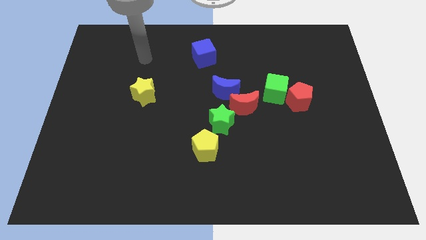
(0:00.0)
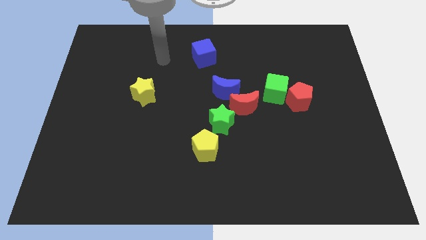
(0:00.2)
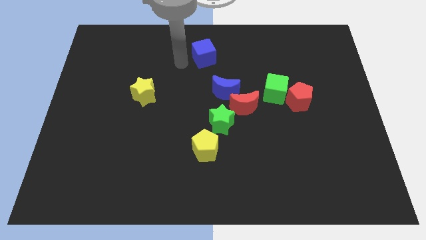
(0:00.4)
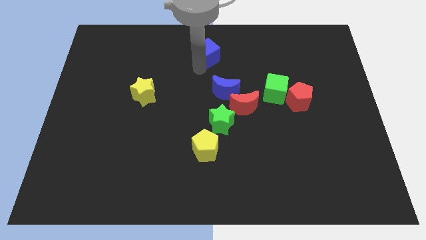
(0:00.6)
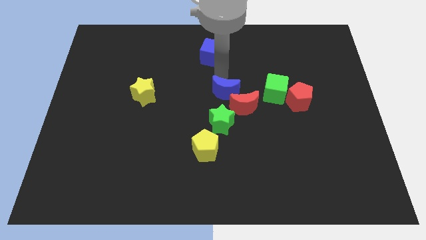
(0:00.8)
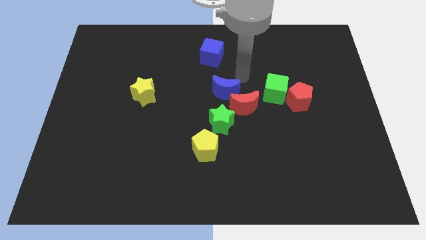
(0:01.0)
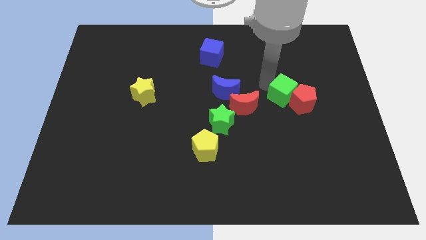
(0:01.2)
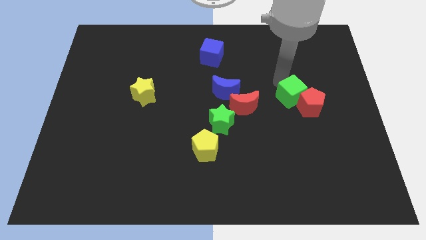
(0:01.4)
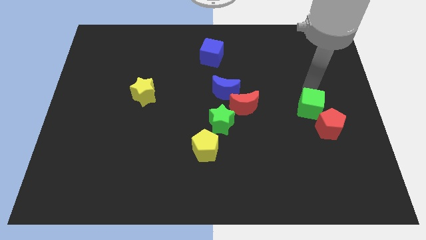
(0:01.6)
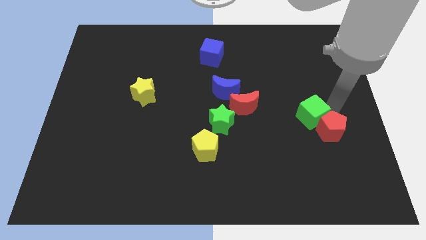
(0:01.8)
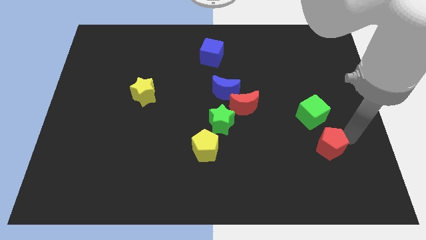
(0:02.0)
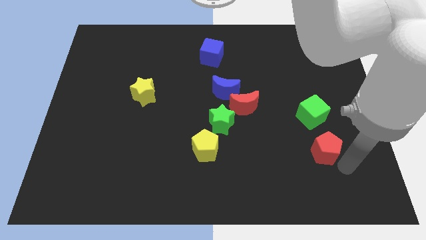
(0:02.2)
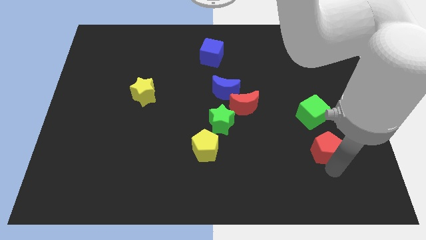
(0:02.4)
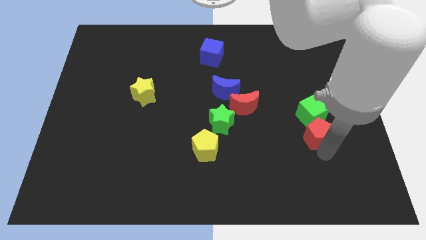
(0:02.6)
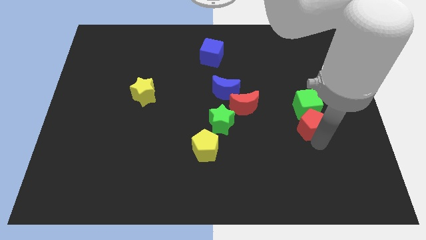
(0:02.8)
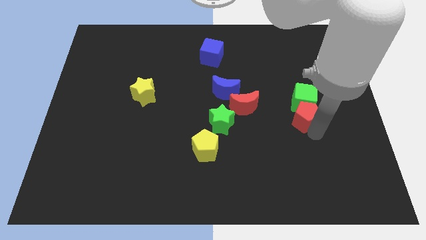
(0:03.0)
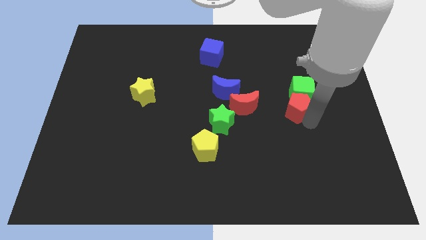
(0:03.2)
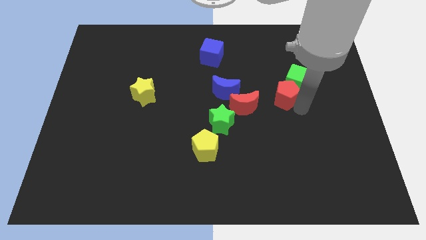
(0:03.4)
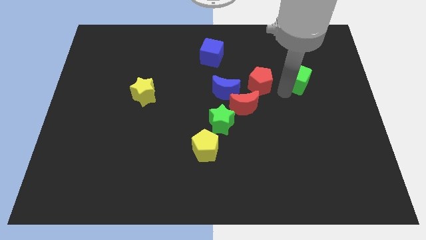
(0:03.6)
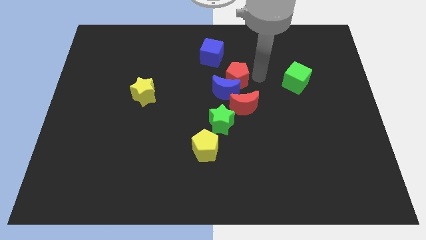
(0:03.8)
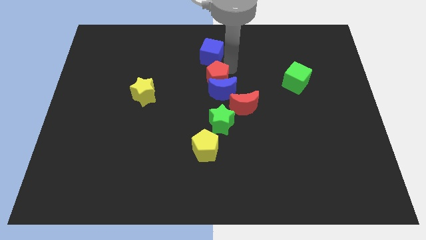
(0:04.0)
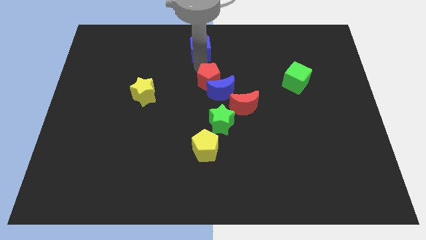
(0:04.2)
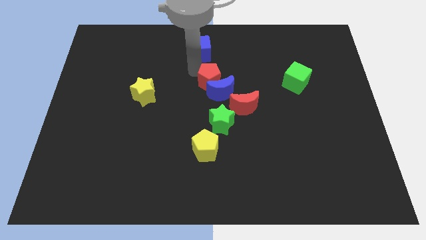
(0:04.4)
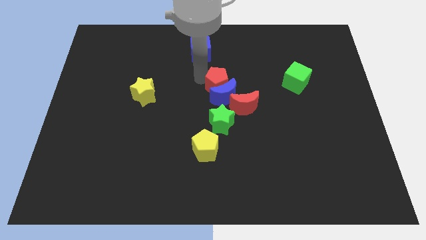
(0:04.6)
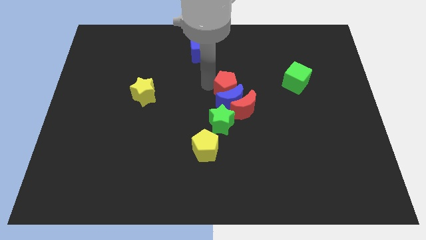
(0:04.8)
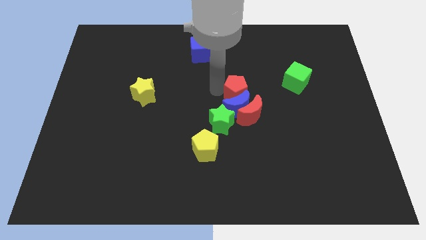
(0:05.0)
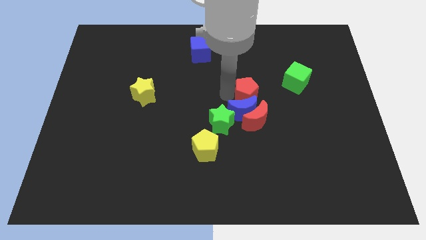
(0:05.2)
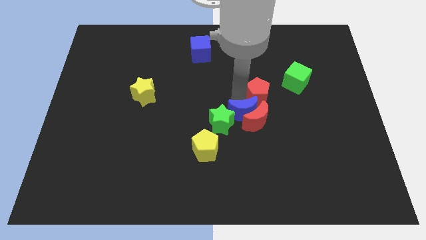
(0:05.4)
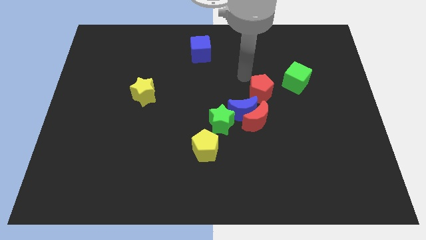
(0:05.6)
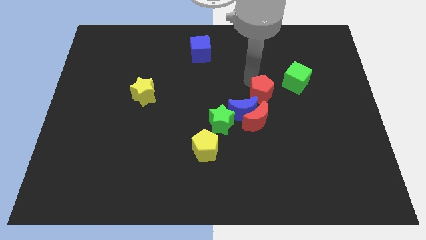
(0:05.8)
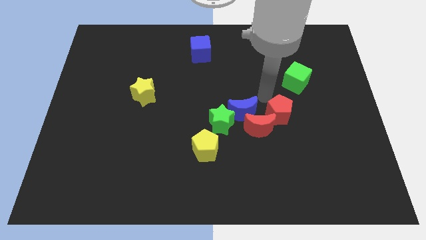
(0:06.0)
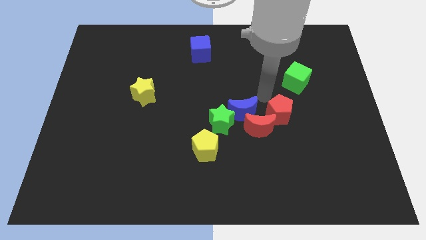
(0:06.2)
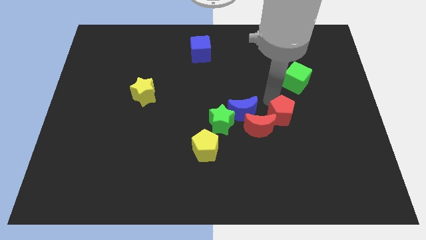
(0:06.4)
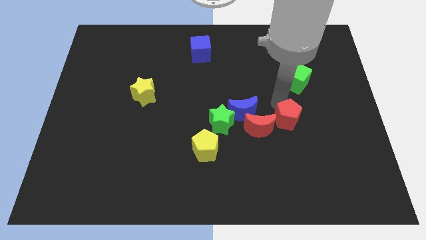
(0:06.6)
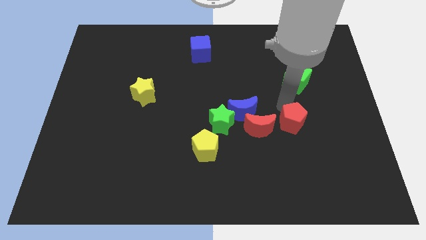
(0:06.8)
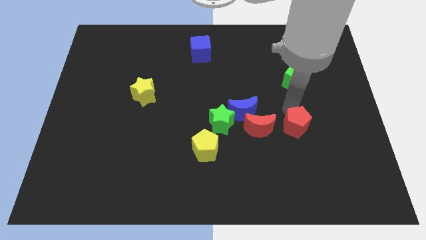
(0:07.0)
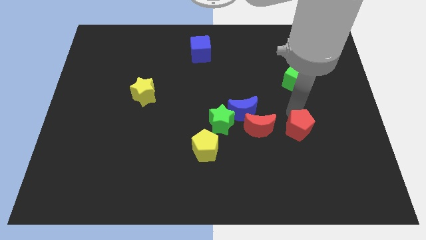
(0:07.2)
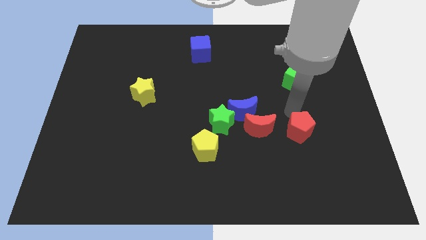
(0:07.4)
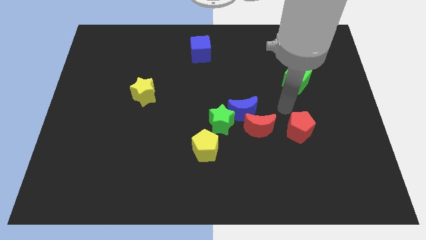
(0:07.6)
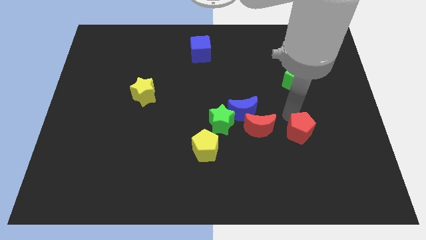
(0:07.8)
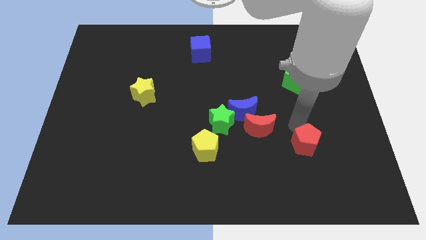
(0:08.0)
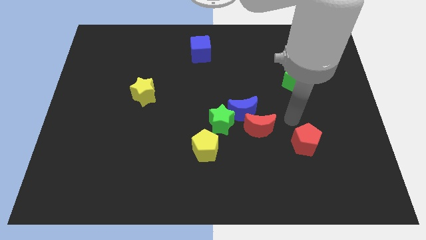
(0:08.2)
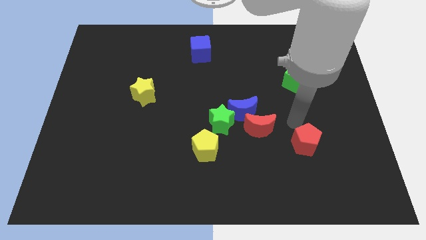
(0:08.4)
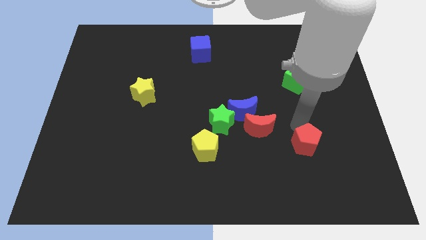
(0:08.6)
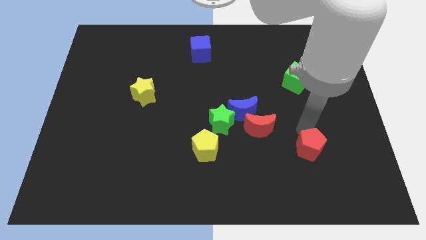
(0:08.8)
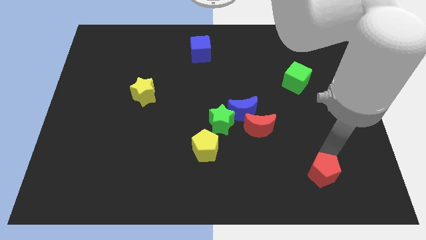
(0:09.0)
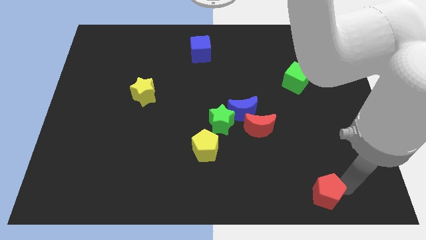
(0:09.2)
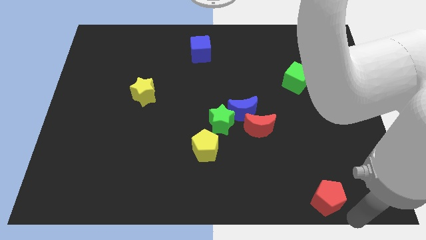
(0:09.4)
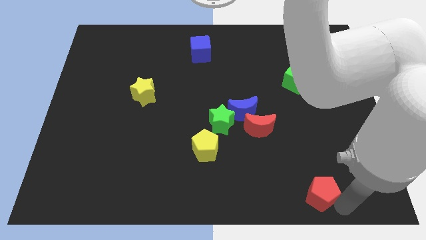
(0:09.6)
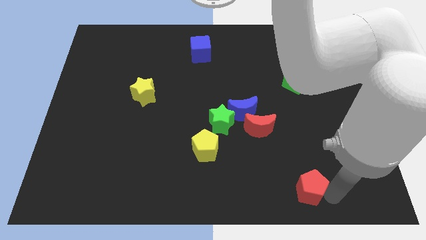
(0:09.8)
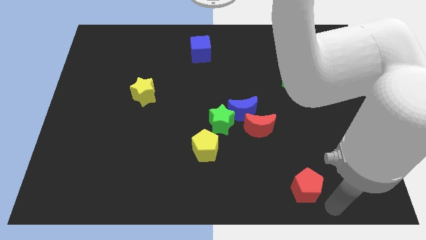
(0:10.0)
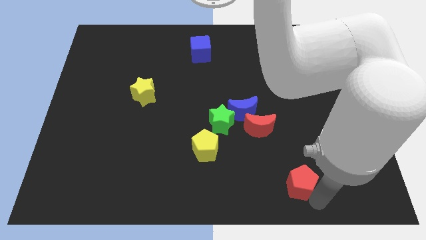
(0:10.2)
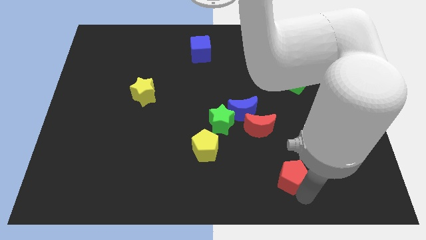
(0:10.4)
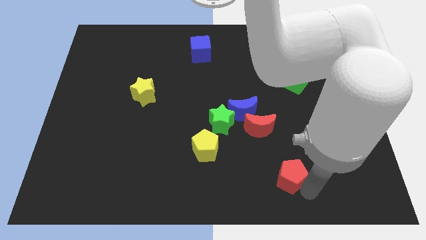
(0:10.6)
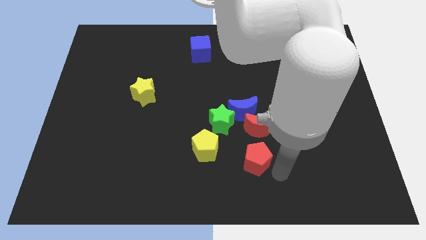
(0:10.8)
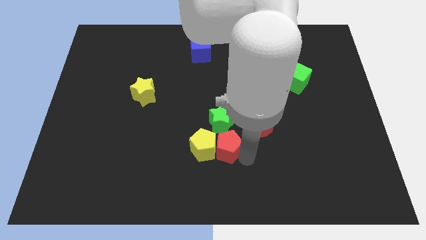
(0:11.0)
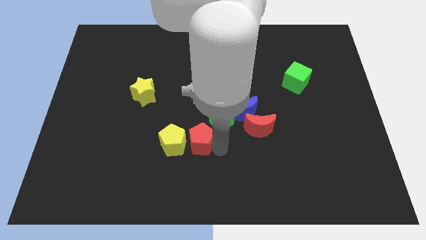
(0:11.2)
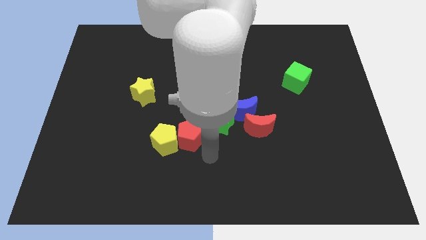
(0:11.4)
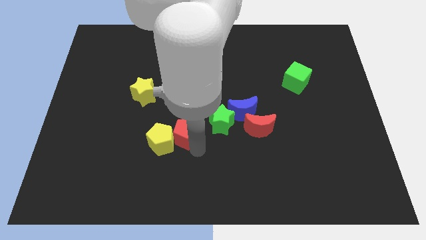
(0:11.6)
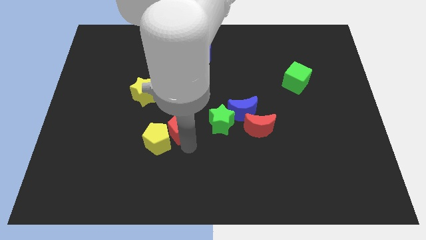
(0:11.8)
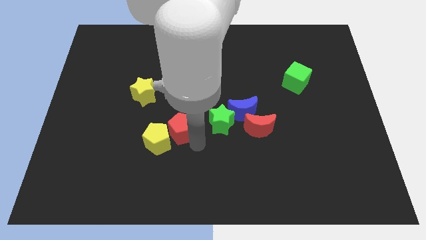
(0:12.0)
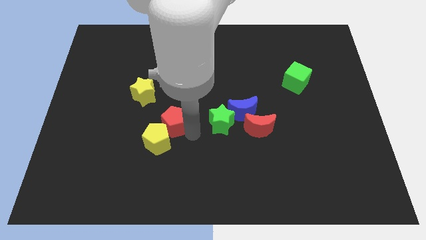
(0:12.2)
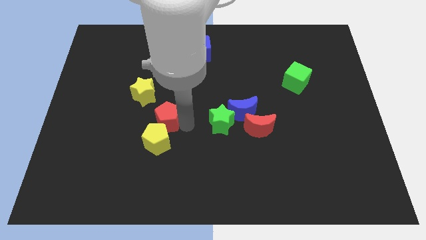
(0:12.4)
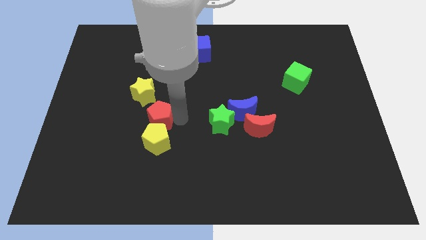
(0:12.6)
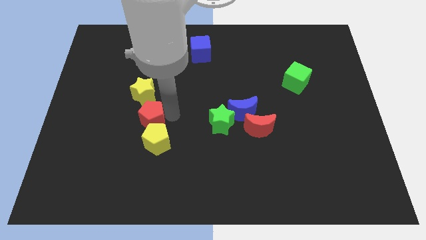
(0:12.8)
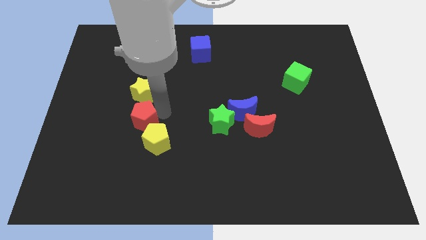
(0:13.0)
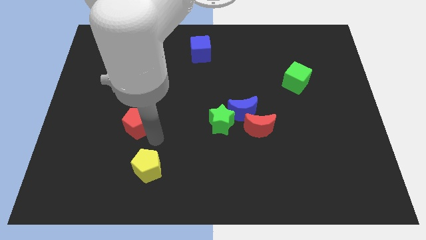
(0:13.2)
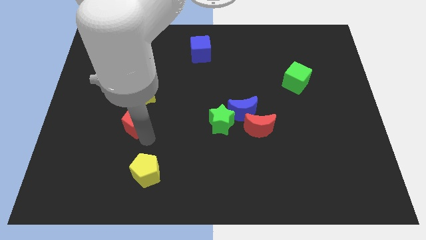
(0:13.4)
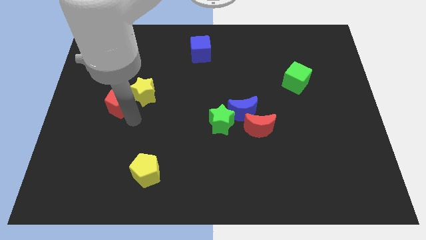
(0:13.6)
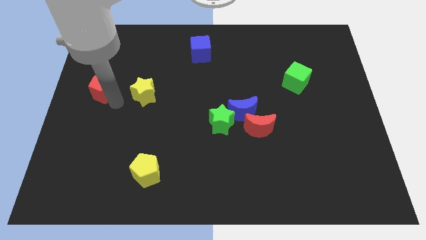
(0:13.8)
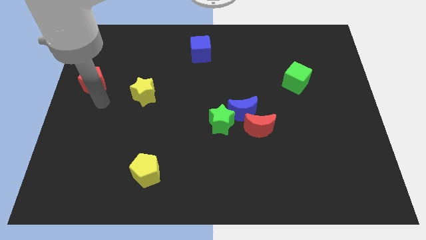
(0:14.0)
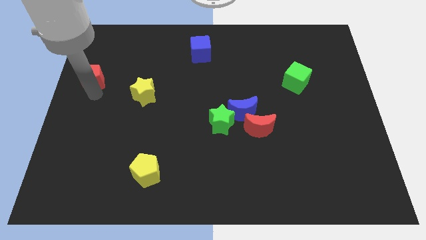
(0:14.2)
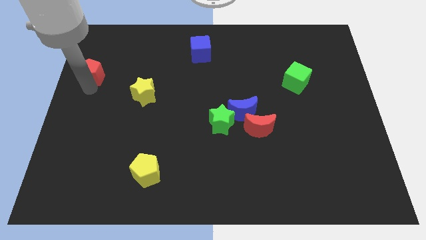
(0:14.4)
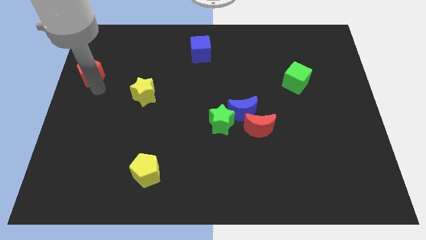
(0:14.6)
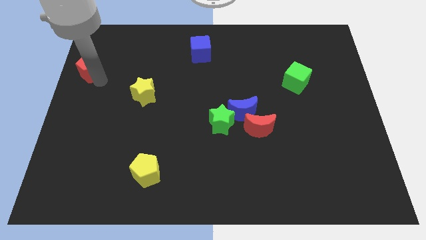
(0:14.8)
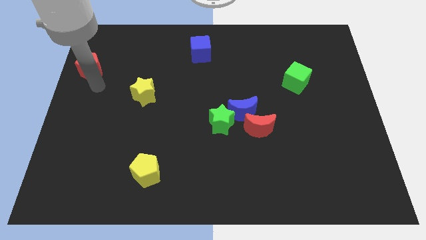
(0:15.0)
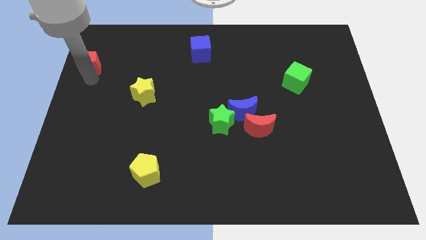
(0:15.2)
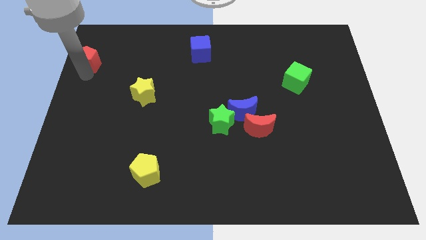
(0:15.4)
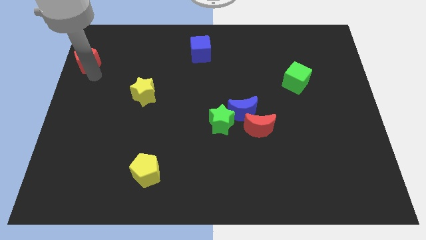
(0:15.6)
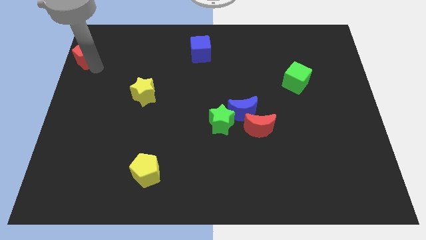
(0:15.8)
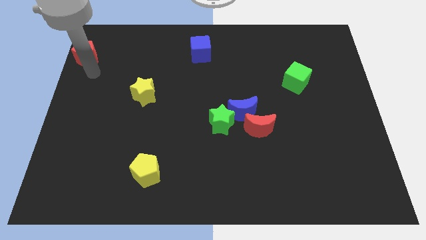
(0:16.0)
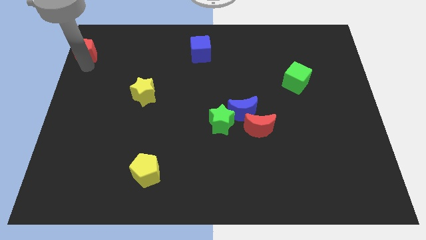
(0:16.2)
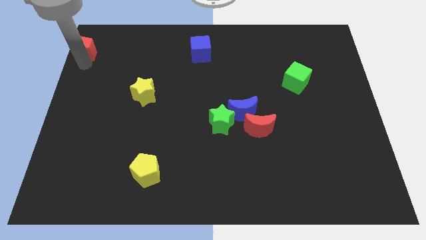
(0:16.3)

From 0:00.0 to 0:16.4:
put the red pentagon to the upper left corner
